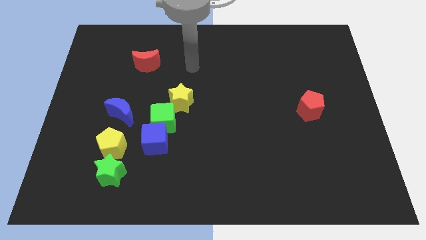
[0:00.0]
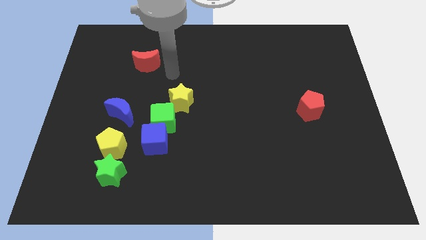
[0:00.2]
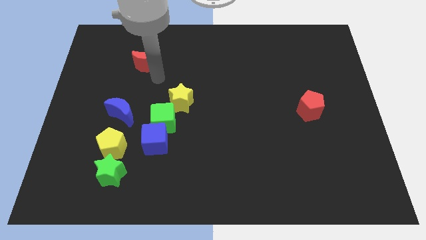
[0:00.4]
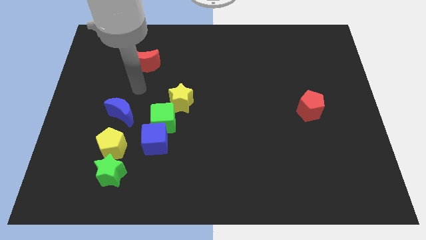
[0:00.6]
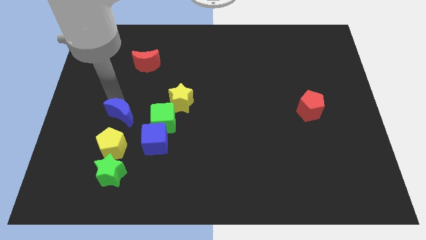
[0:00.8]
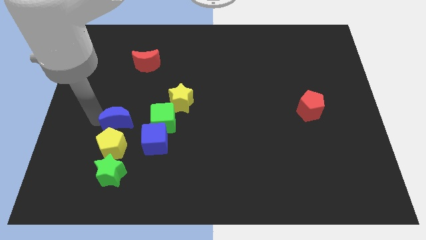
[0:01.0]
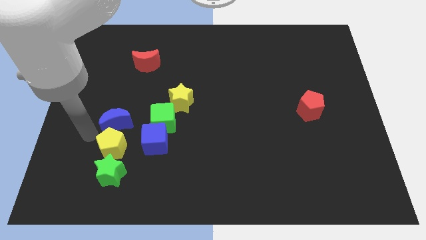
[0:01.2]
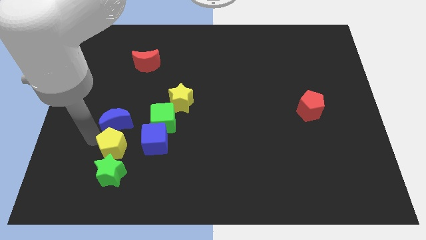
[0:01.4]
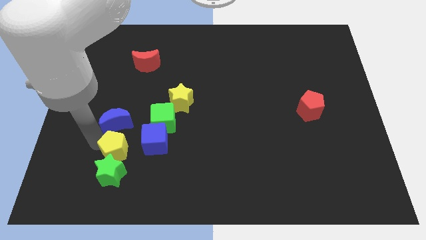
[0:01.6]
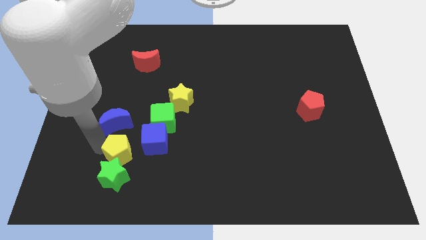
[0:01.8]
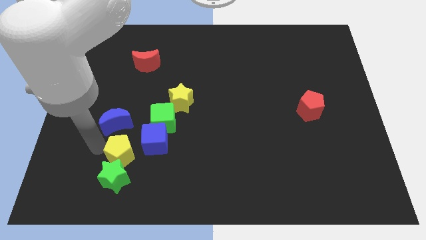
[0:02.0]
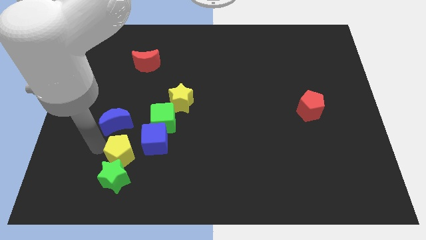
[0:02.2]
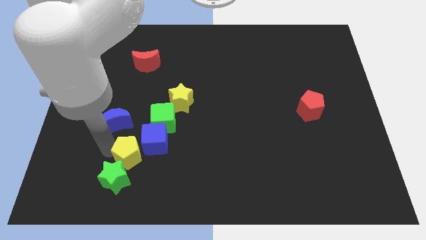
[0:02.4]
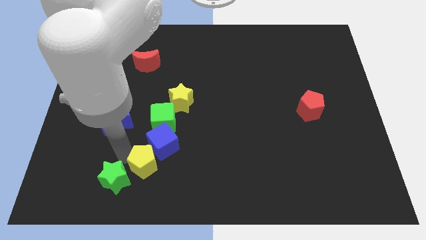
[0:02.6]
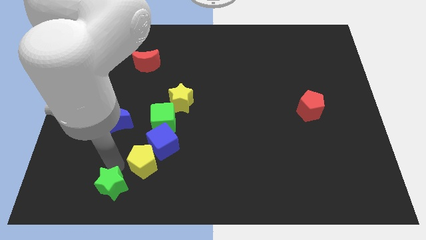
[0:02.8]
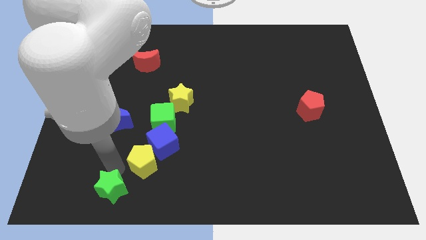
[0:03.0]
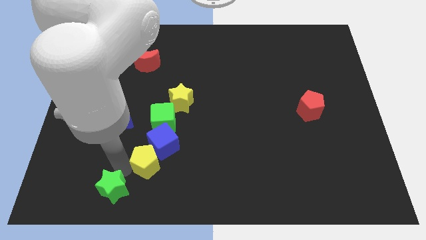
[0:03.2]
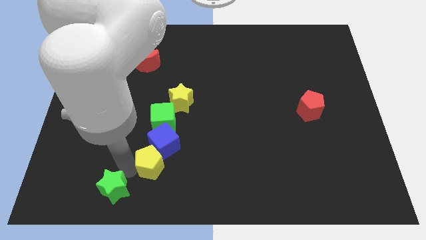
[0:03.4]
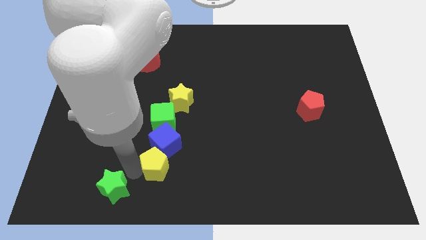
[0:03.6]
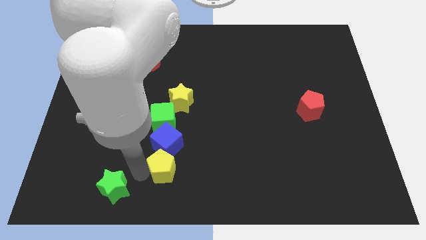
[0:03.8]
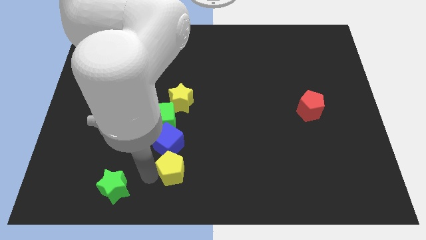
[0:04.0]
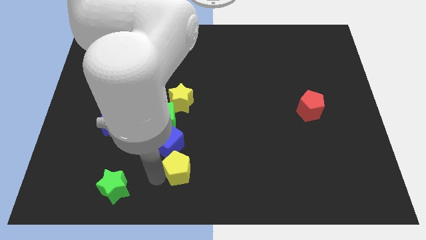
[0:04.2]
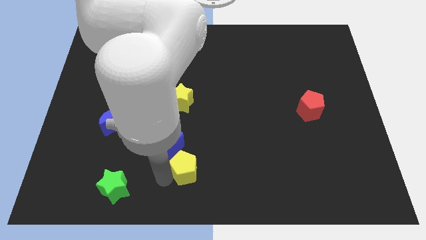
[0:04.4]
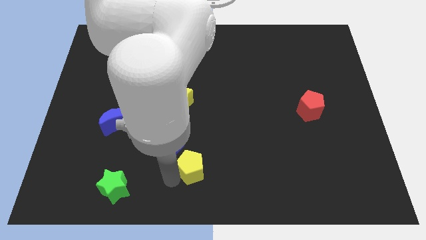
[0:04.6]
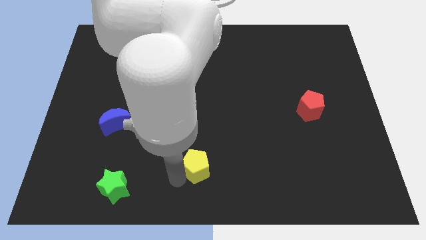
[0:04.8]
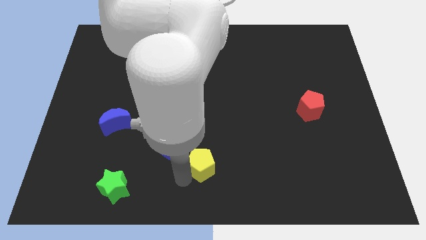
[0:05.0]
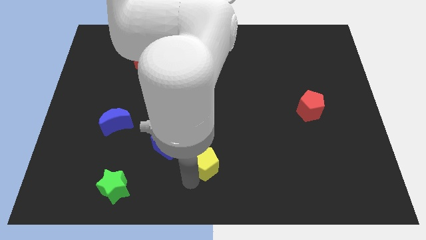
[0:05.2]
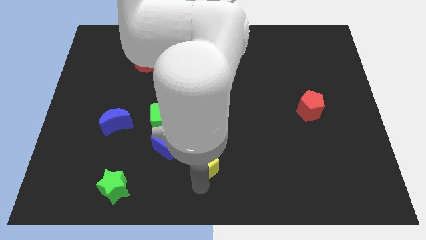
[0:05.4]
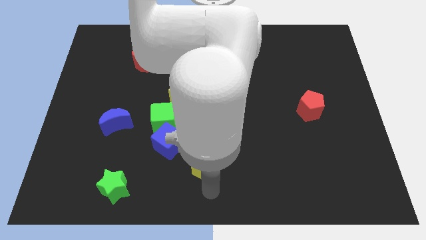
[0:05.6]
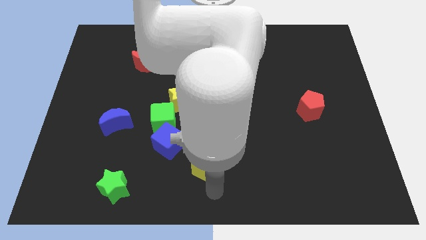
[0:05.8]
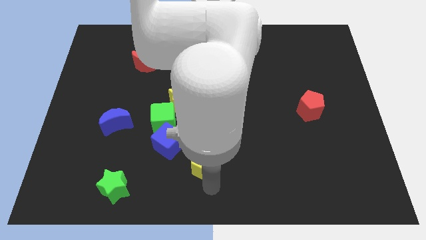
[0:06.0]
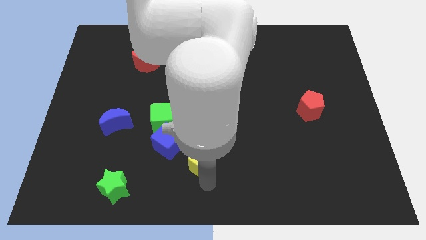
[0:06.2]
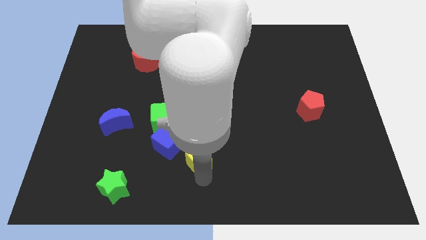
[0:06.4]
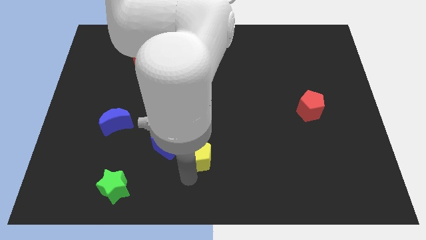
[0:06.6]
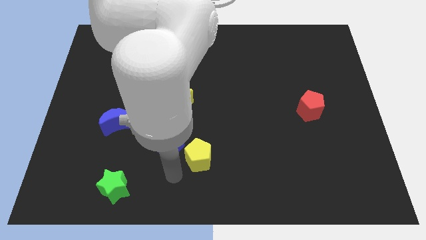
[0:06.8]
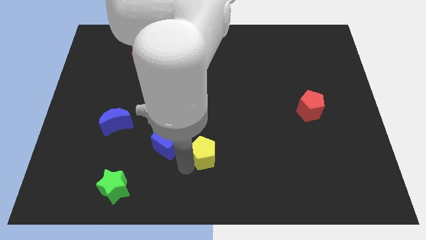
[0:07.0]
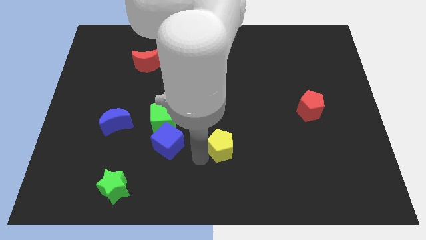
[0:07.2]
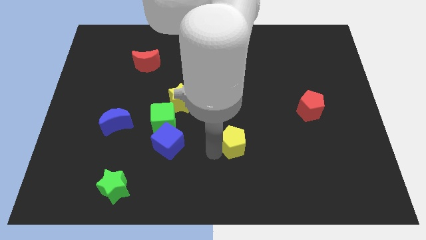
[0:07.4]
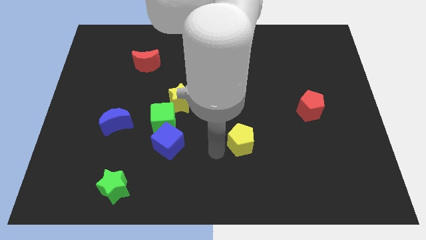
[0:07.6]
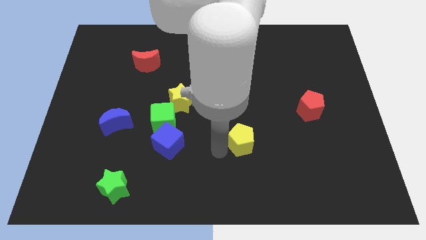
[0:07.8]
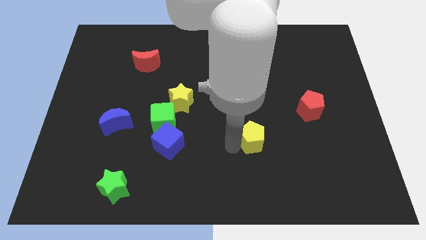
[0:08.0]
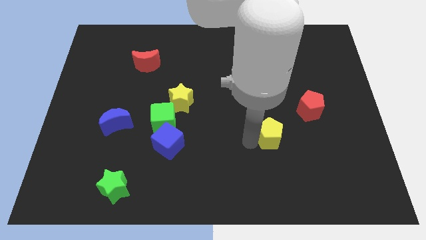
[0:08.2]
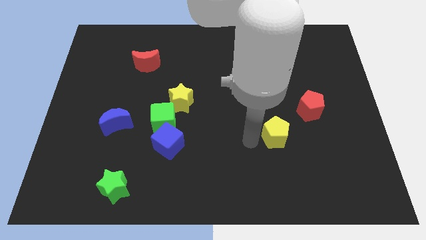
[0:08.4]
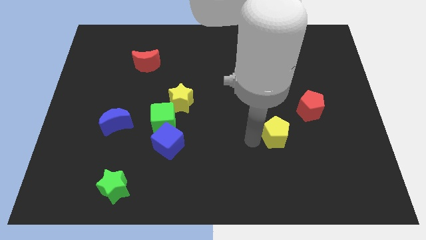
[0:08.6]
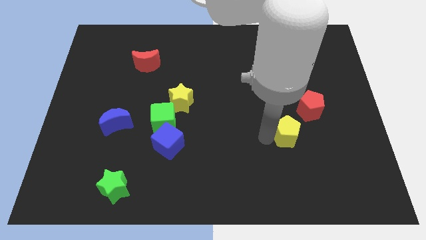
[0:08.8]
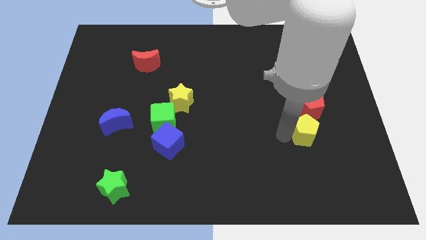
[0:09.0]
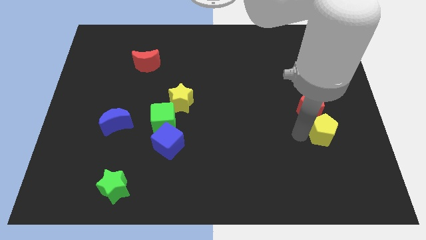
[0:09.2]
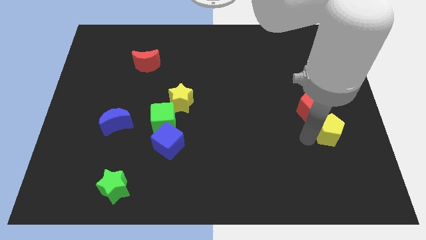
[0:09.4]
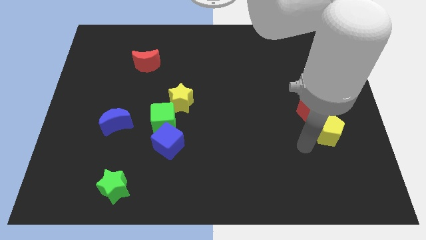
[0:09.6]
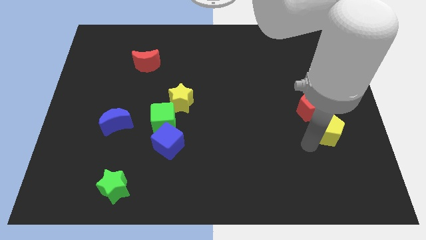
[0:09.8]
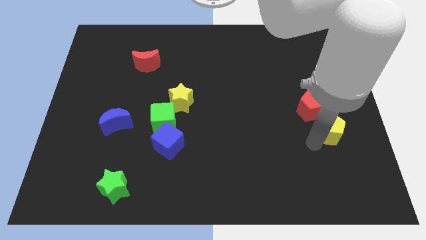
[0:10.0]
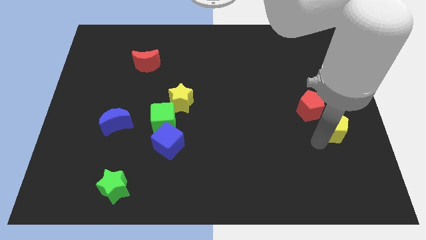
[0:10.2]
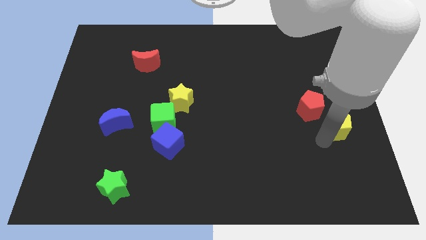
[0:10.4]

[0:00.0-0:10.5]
slide the yellow pentagon to the right side

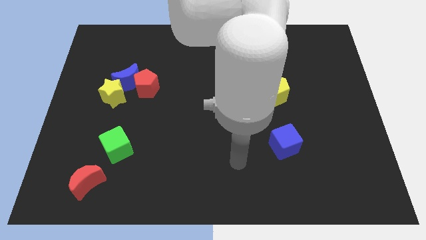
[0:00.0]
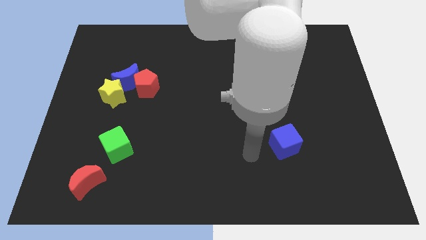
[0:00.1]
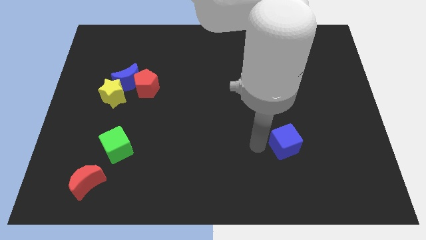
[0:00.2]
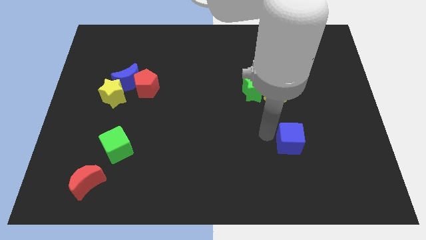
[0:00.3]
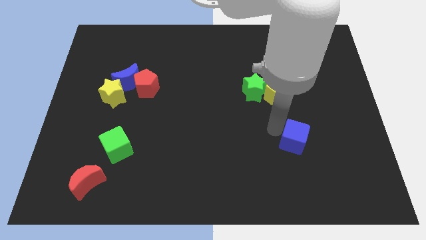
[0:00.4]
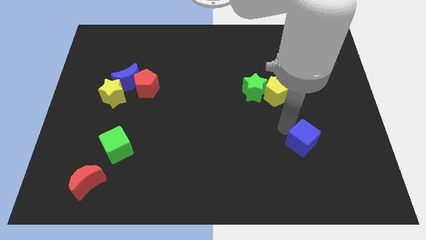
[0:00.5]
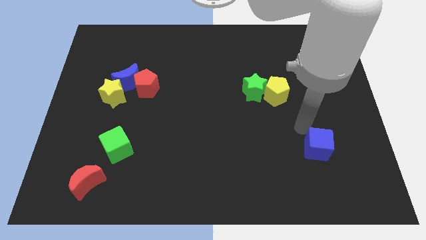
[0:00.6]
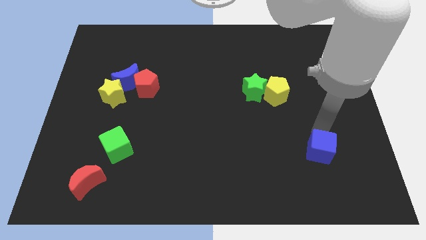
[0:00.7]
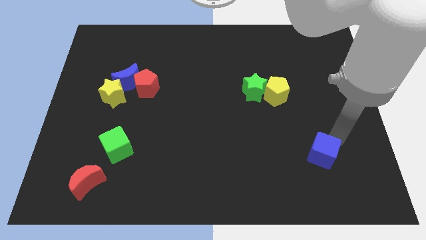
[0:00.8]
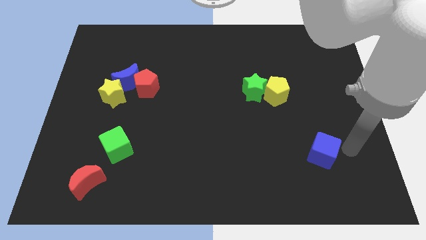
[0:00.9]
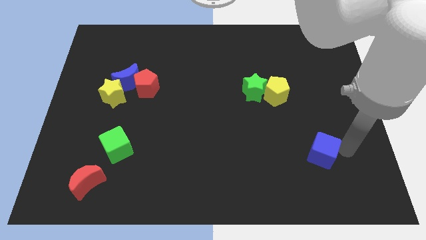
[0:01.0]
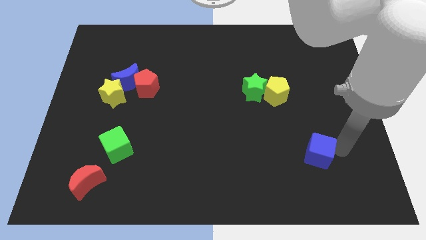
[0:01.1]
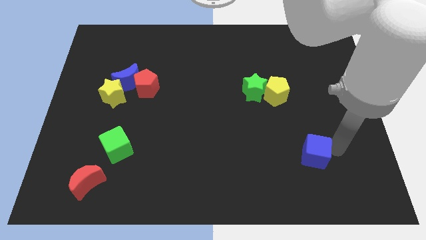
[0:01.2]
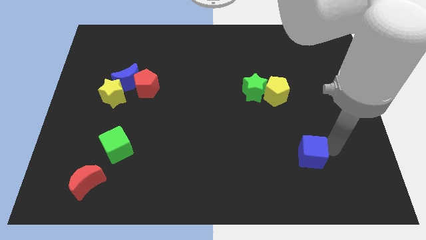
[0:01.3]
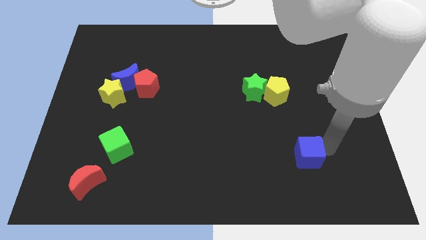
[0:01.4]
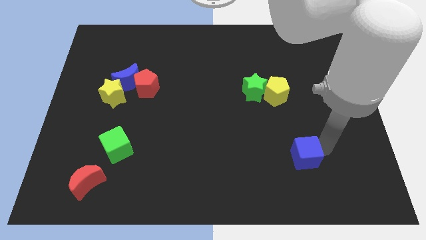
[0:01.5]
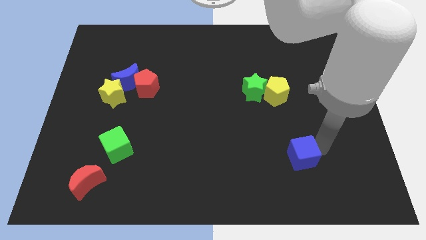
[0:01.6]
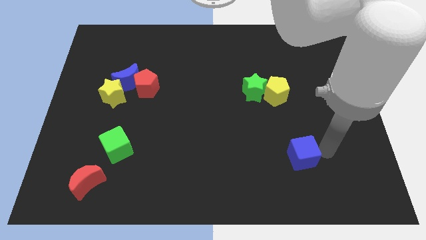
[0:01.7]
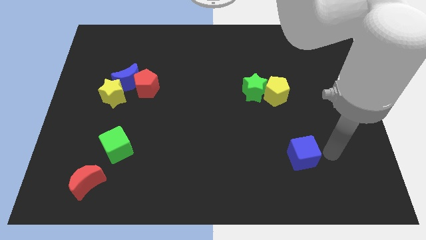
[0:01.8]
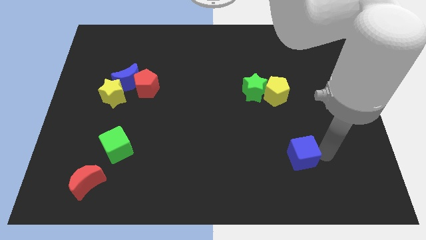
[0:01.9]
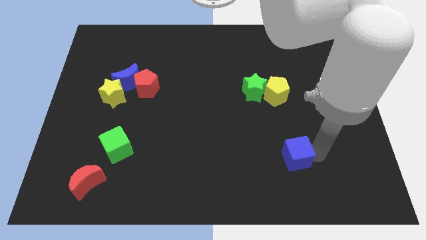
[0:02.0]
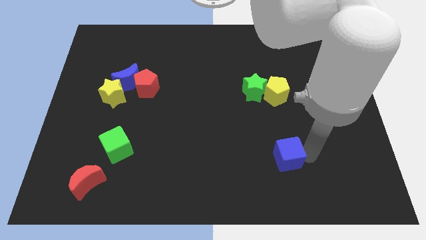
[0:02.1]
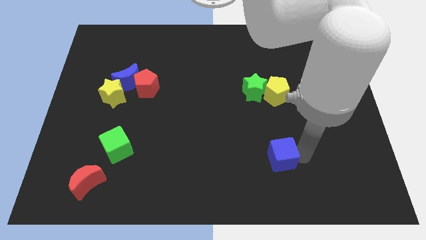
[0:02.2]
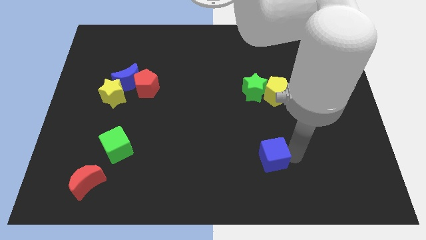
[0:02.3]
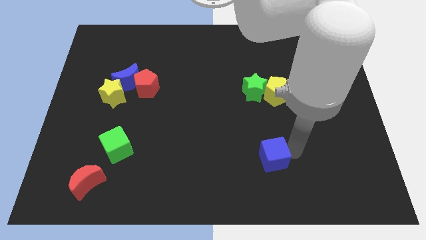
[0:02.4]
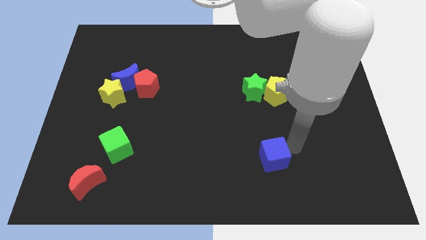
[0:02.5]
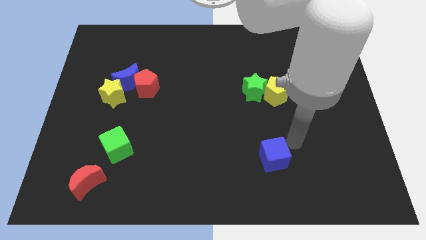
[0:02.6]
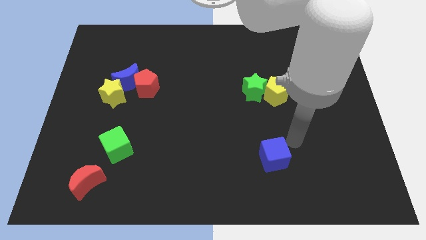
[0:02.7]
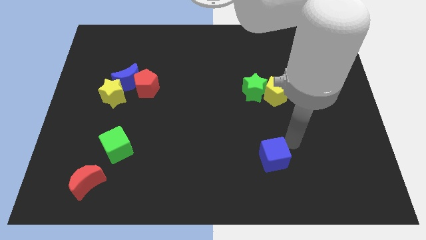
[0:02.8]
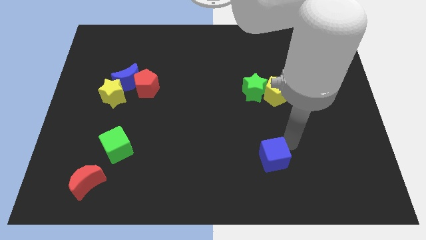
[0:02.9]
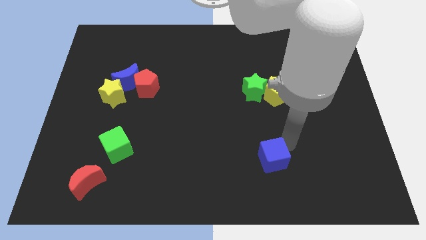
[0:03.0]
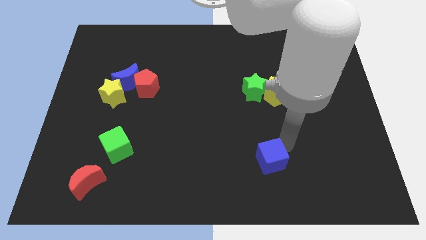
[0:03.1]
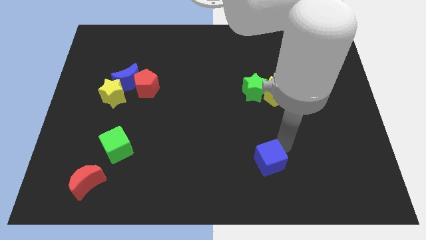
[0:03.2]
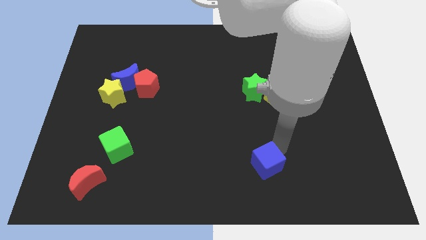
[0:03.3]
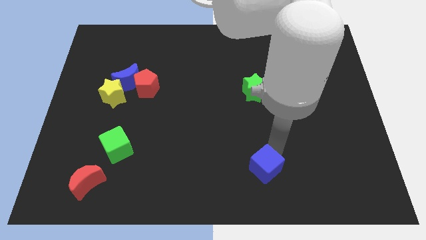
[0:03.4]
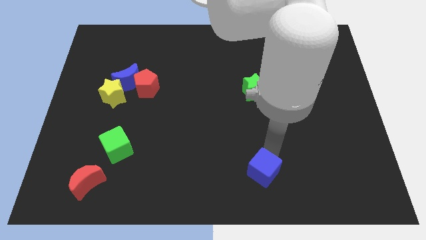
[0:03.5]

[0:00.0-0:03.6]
slide the blue cube to the bottom
